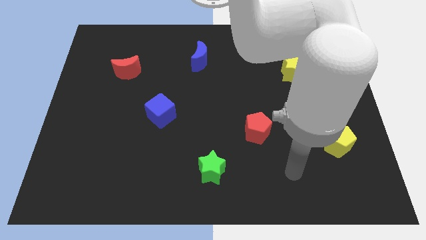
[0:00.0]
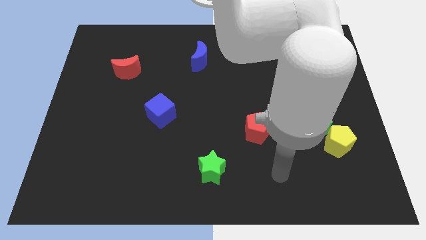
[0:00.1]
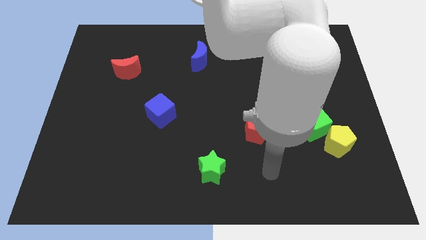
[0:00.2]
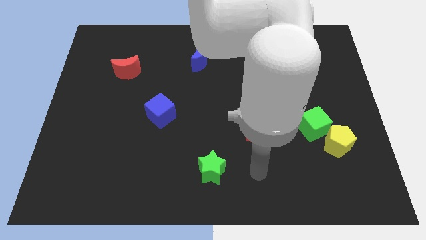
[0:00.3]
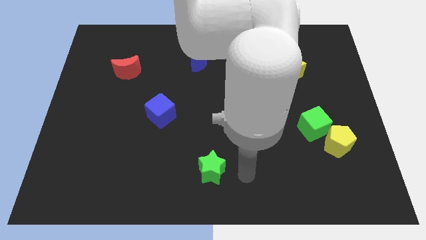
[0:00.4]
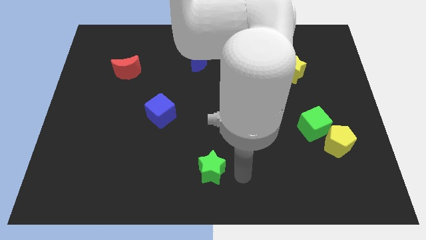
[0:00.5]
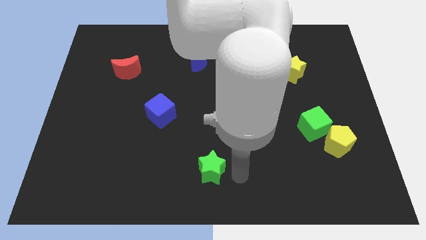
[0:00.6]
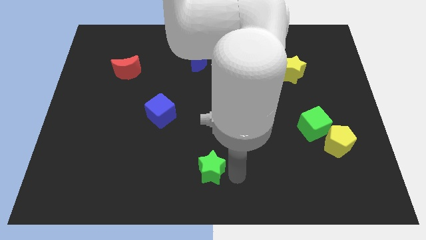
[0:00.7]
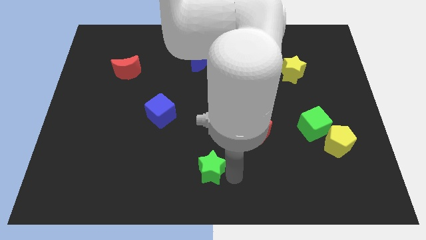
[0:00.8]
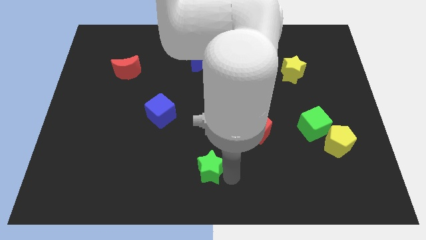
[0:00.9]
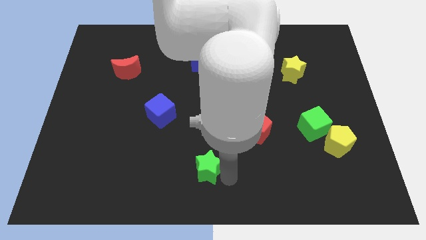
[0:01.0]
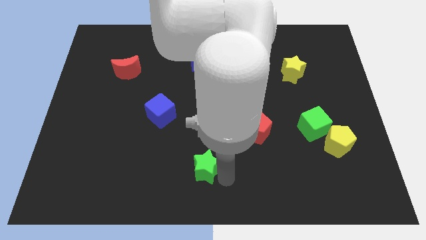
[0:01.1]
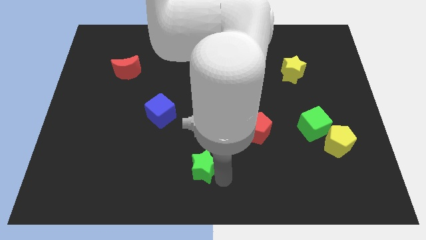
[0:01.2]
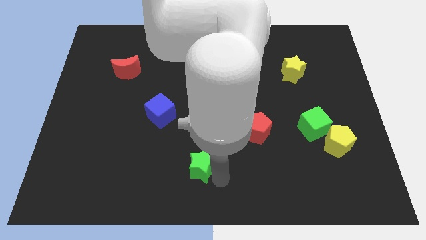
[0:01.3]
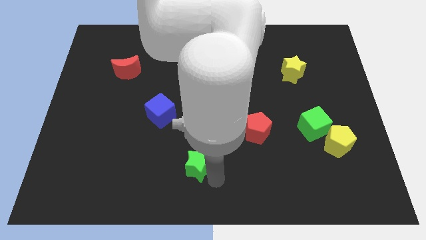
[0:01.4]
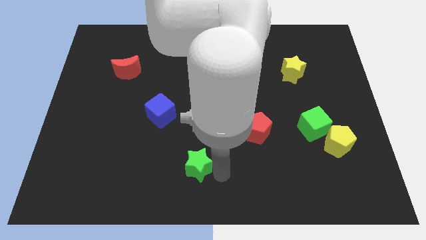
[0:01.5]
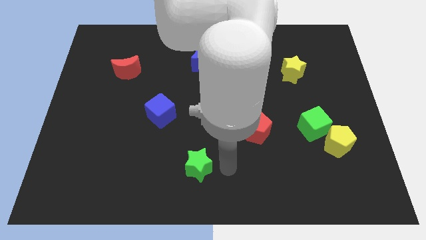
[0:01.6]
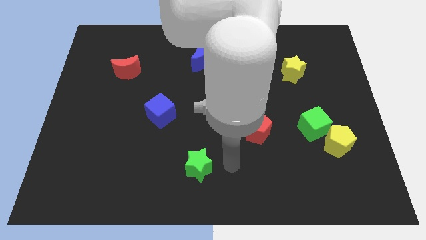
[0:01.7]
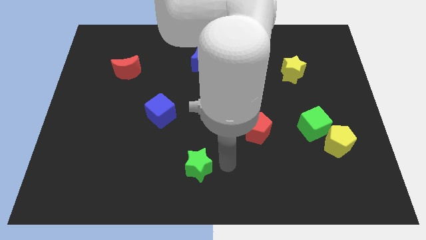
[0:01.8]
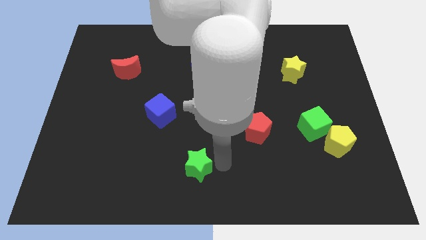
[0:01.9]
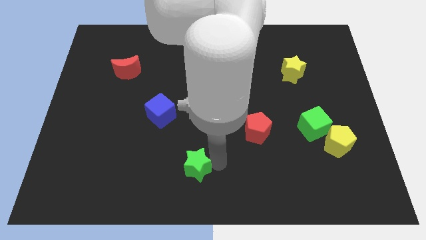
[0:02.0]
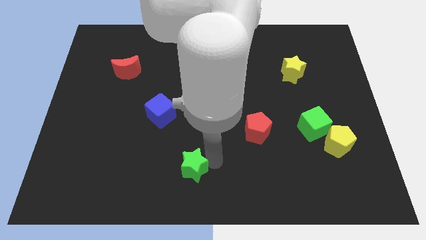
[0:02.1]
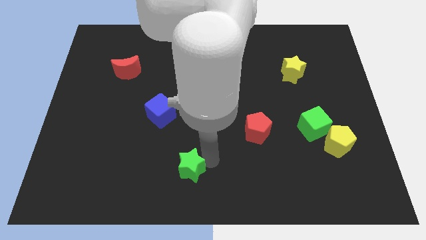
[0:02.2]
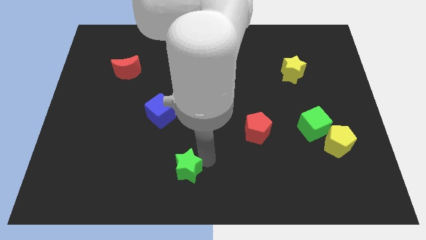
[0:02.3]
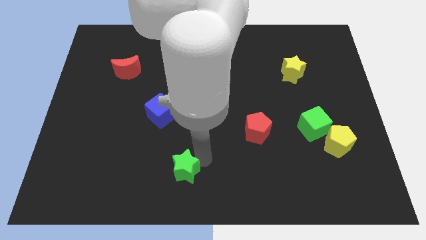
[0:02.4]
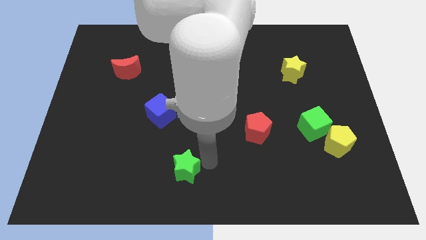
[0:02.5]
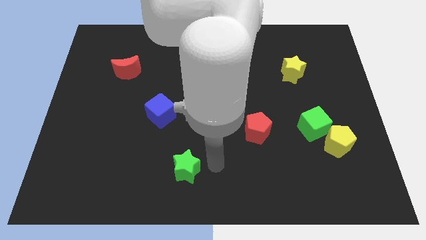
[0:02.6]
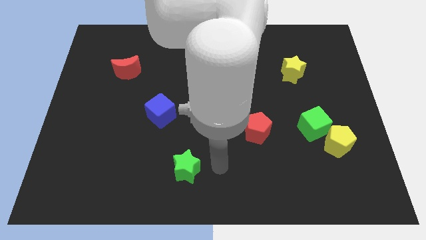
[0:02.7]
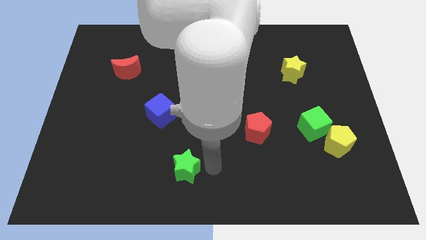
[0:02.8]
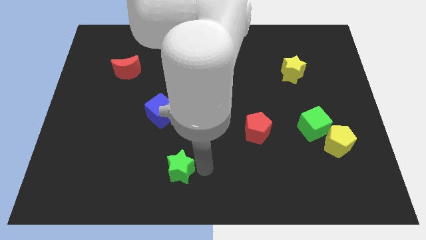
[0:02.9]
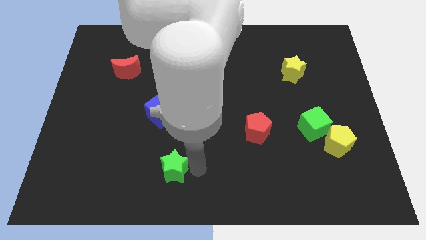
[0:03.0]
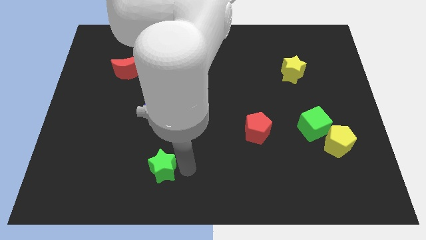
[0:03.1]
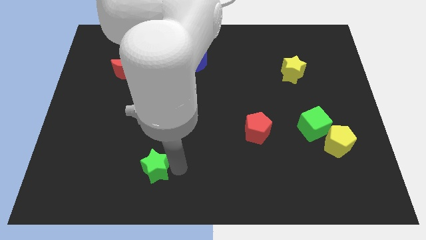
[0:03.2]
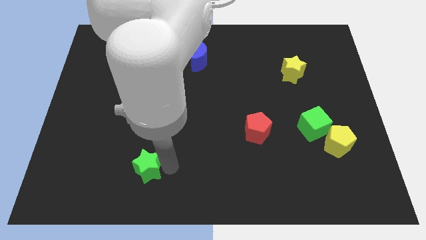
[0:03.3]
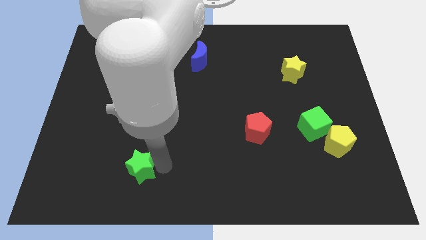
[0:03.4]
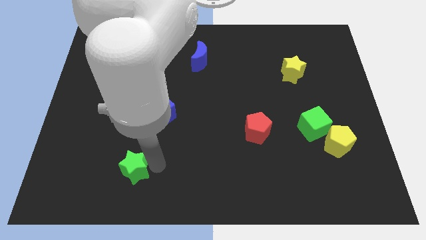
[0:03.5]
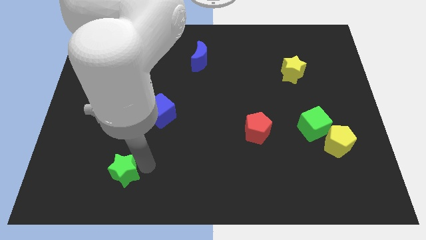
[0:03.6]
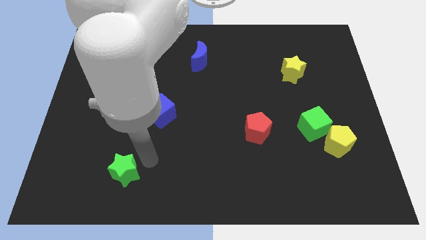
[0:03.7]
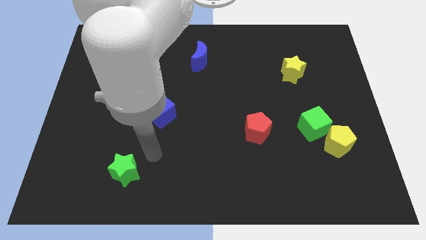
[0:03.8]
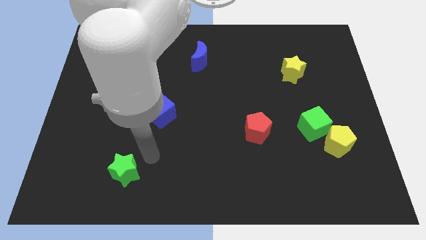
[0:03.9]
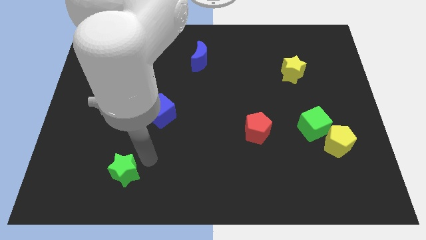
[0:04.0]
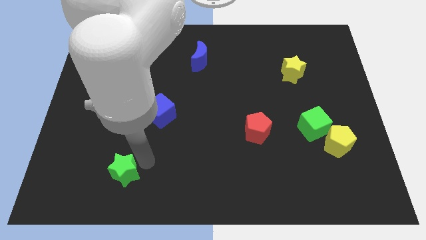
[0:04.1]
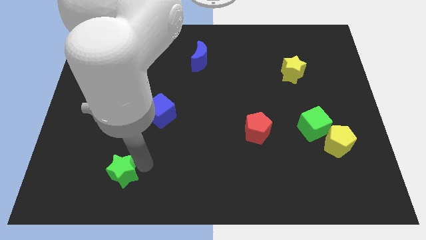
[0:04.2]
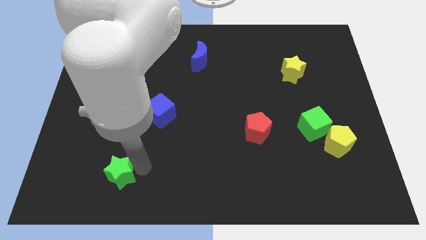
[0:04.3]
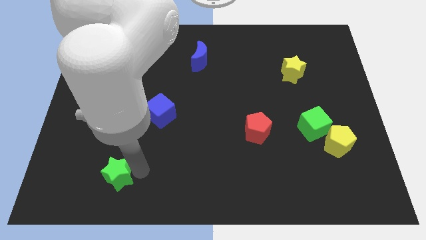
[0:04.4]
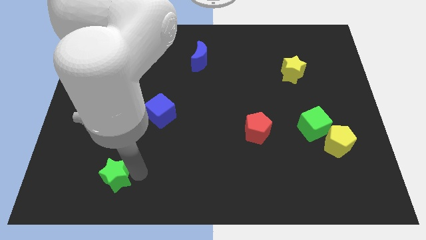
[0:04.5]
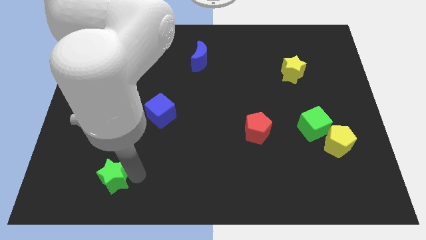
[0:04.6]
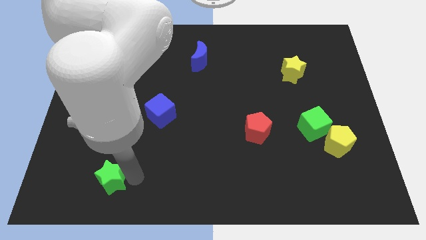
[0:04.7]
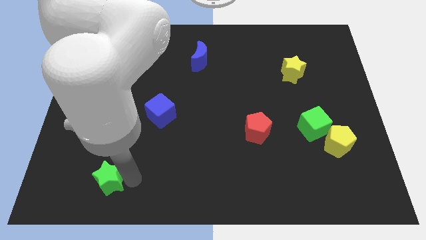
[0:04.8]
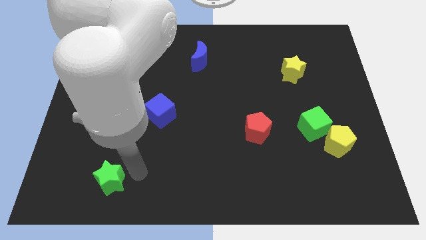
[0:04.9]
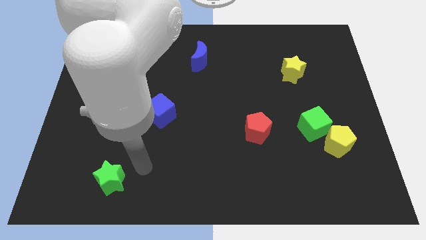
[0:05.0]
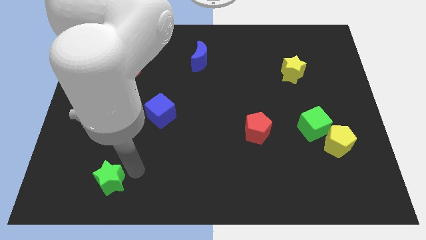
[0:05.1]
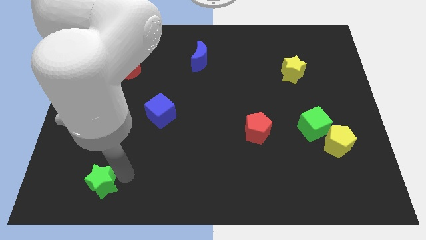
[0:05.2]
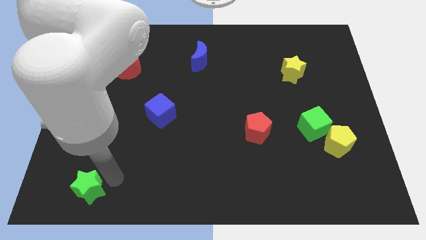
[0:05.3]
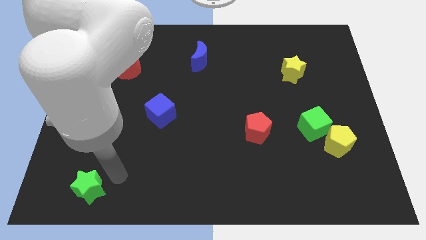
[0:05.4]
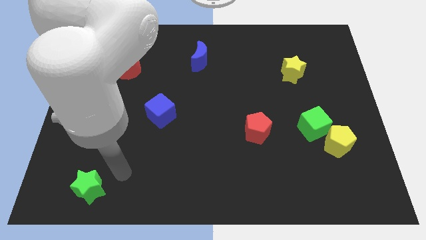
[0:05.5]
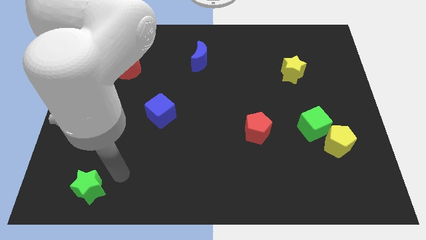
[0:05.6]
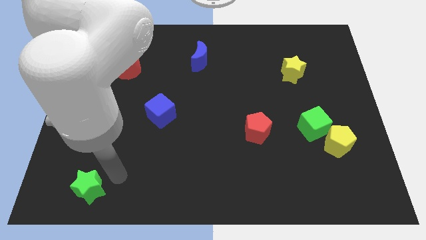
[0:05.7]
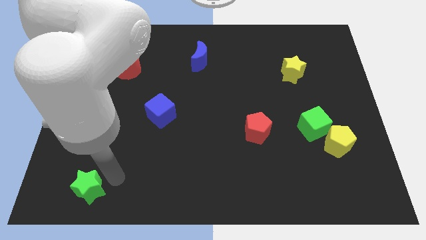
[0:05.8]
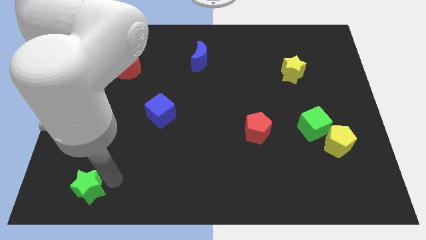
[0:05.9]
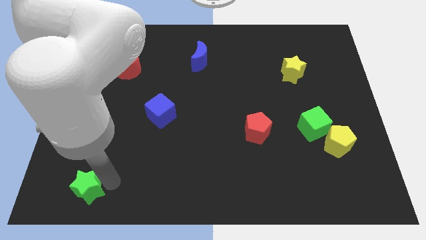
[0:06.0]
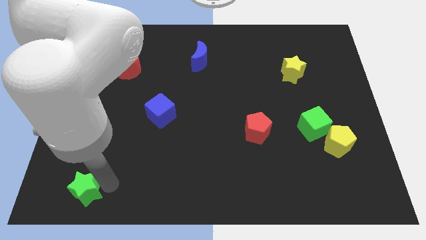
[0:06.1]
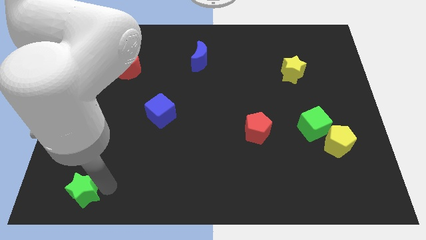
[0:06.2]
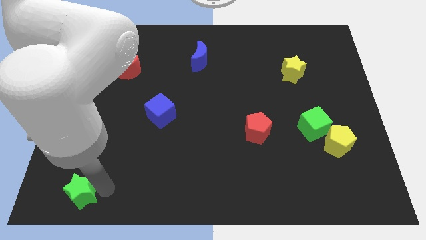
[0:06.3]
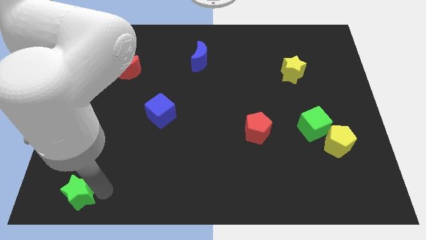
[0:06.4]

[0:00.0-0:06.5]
push the green star to the lower left corner

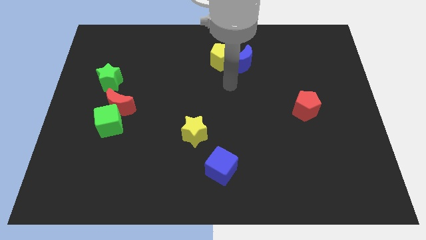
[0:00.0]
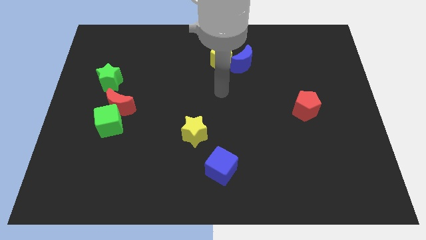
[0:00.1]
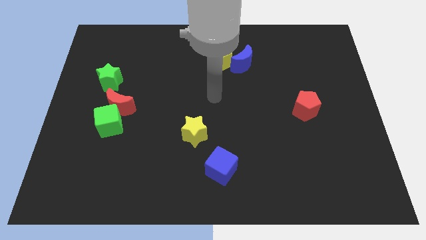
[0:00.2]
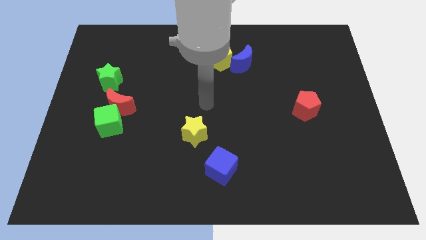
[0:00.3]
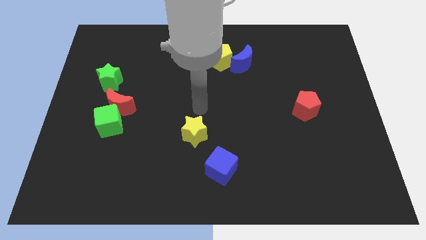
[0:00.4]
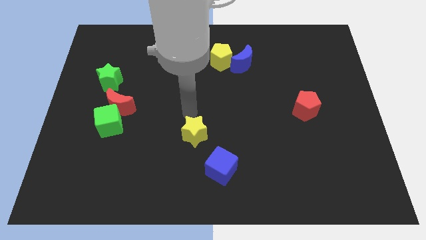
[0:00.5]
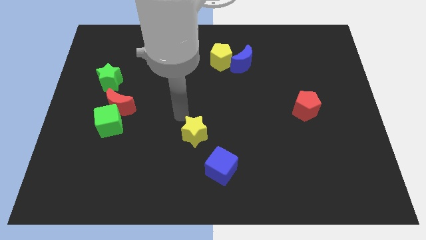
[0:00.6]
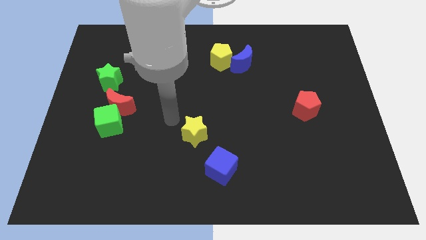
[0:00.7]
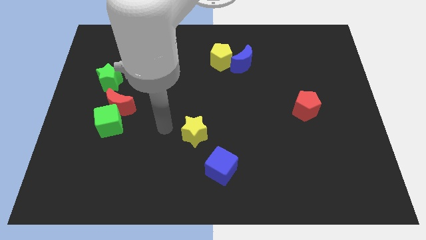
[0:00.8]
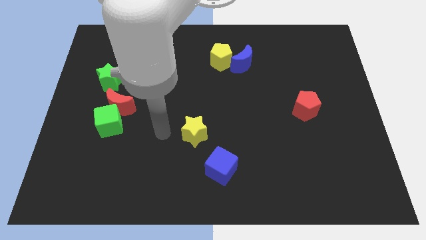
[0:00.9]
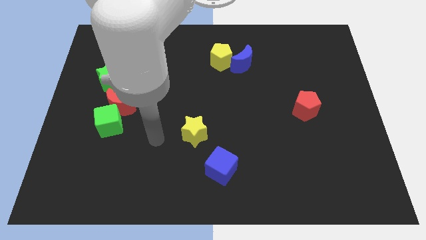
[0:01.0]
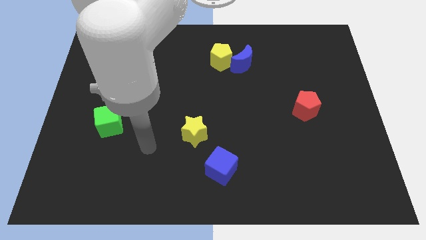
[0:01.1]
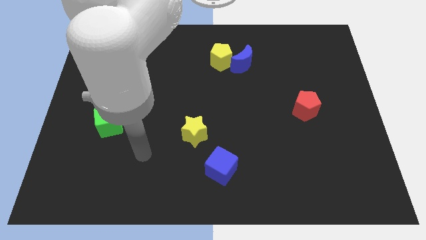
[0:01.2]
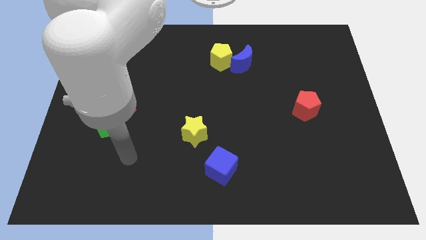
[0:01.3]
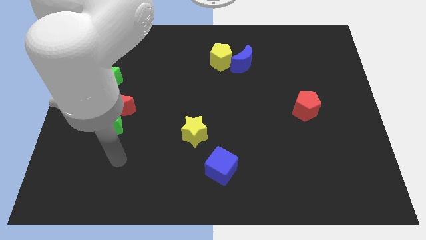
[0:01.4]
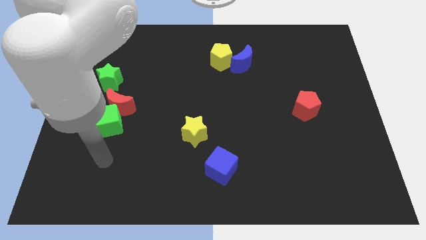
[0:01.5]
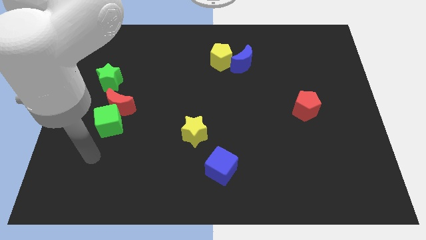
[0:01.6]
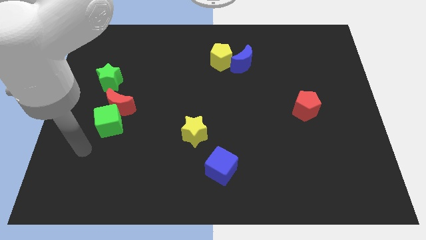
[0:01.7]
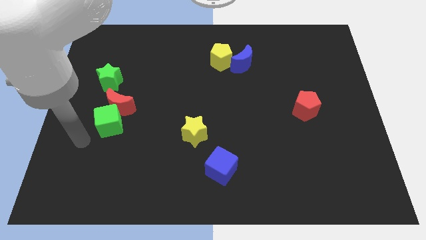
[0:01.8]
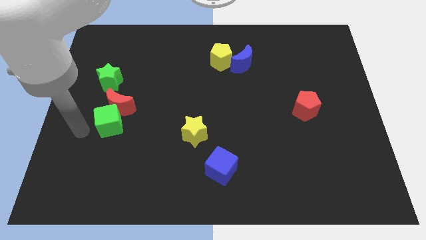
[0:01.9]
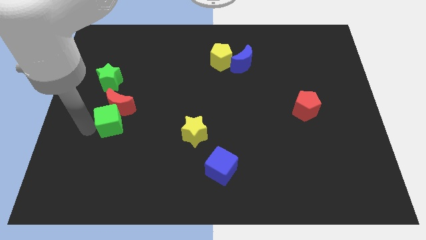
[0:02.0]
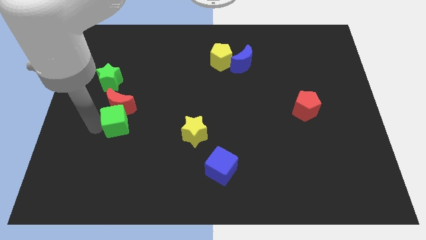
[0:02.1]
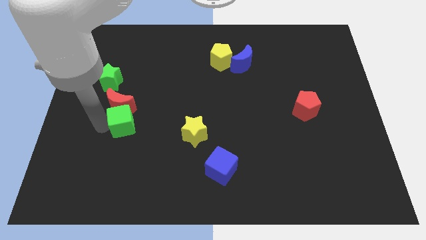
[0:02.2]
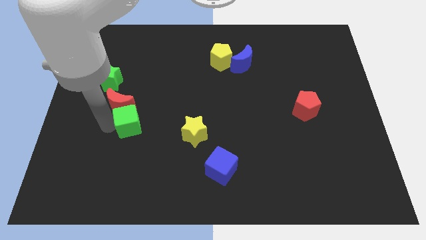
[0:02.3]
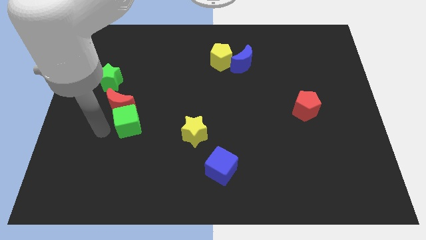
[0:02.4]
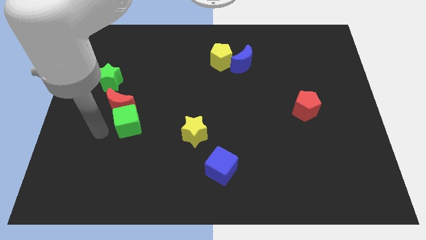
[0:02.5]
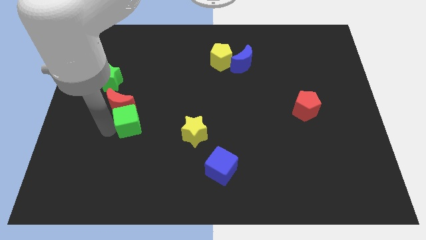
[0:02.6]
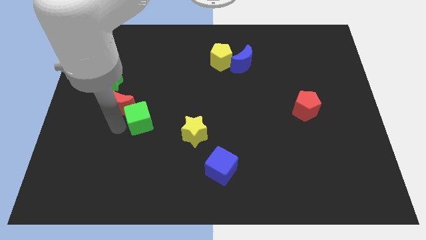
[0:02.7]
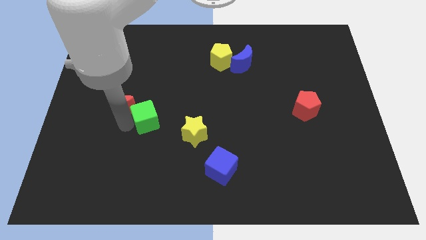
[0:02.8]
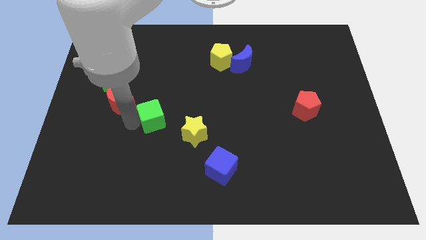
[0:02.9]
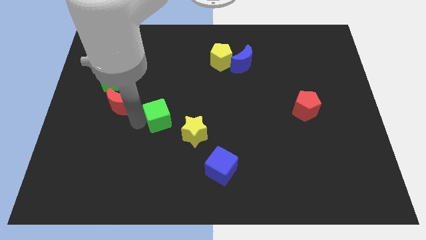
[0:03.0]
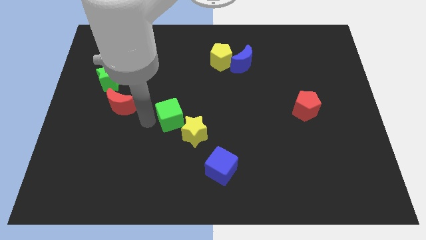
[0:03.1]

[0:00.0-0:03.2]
put the green cube to the middle
